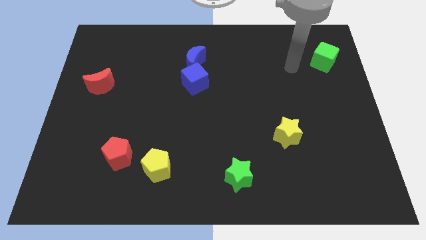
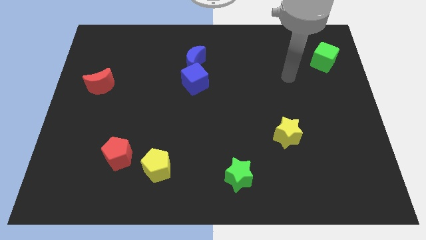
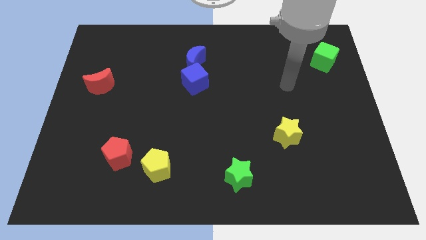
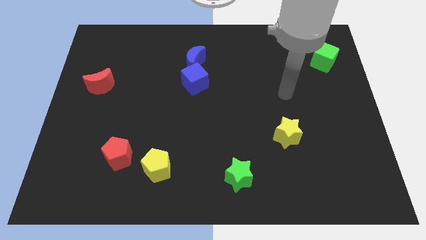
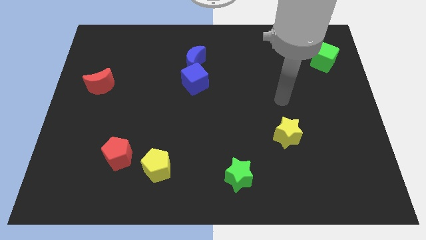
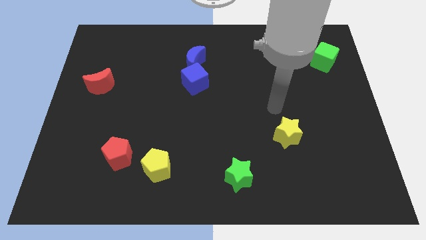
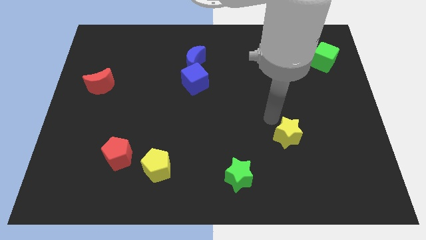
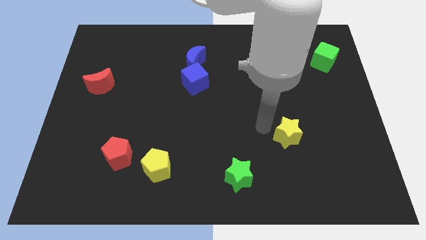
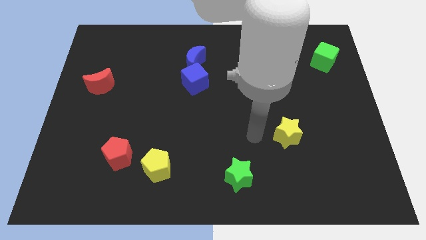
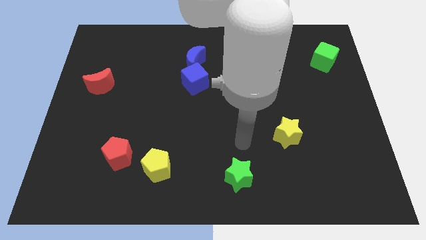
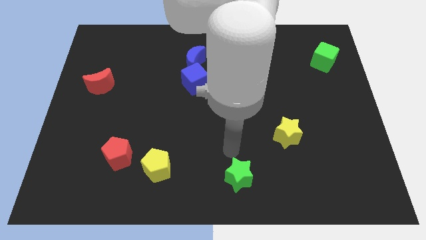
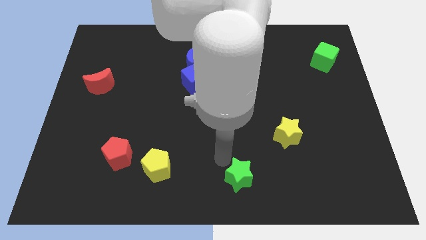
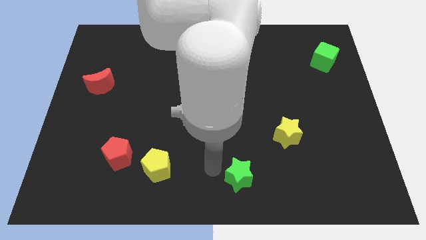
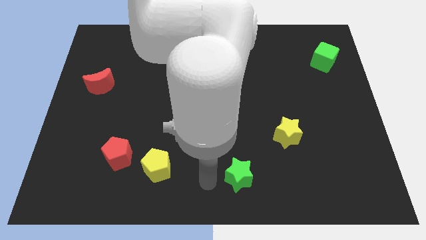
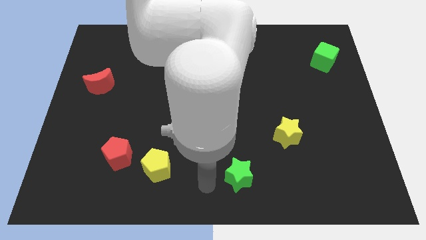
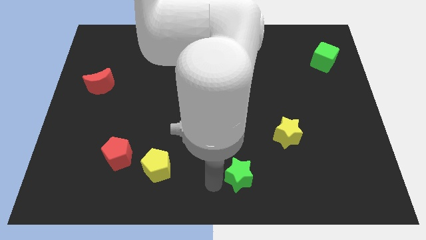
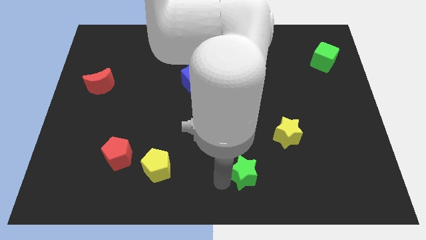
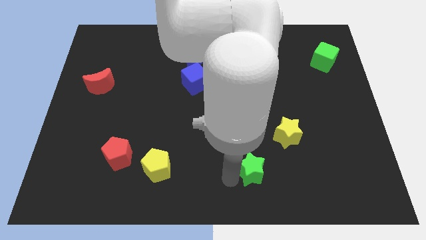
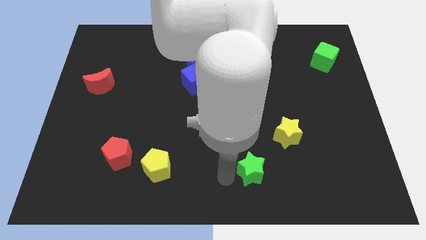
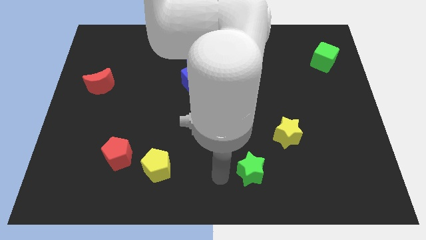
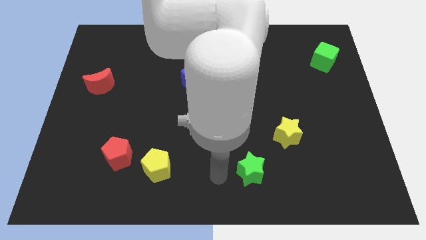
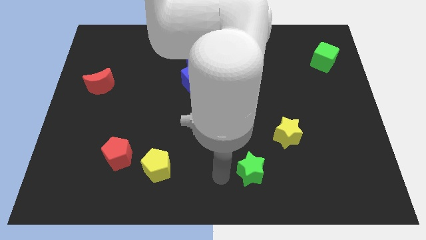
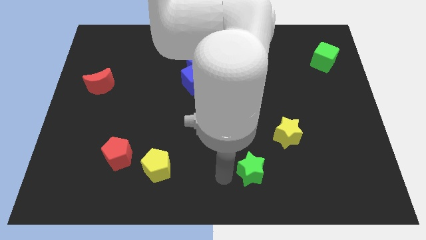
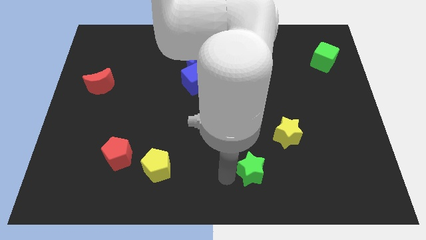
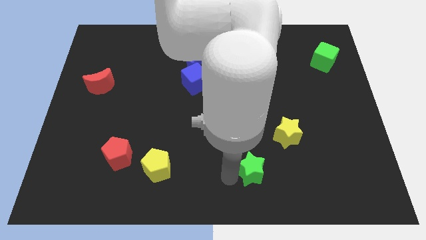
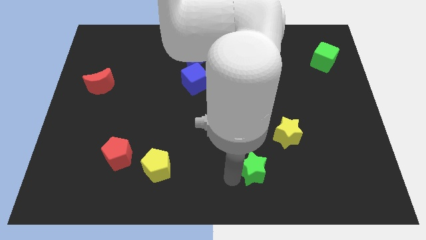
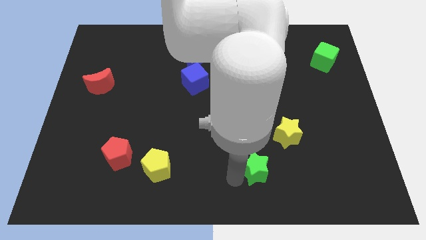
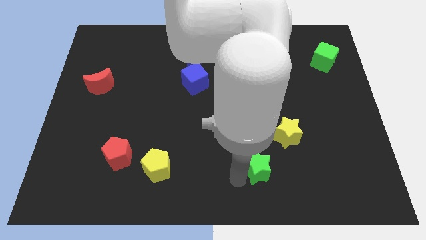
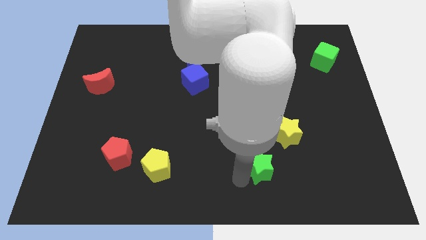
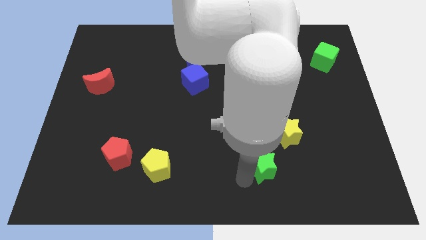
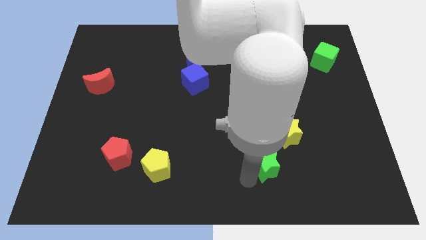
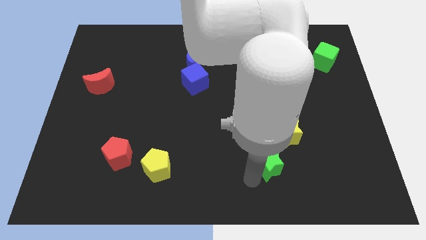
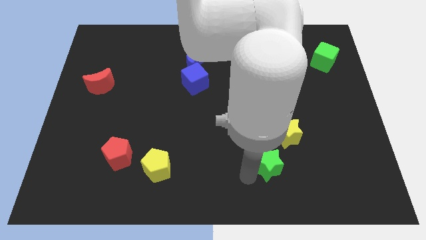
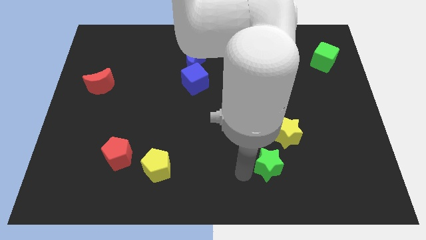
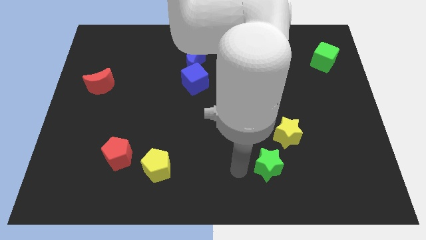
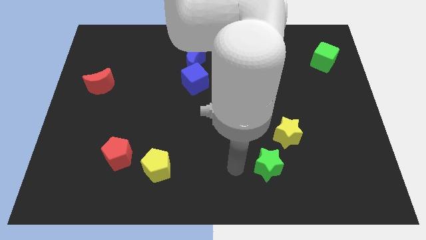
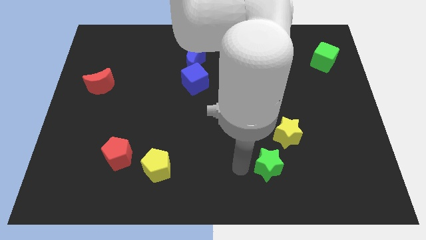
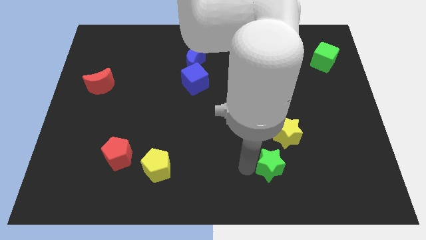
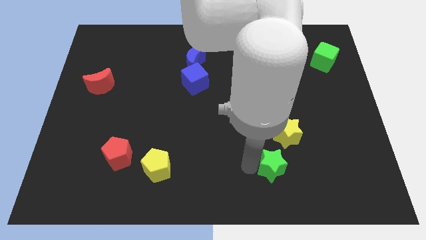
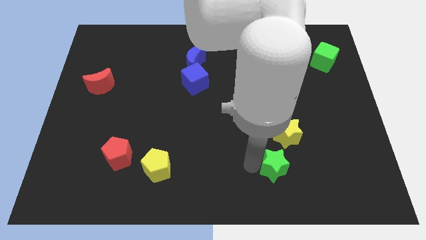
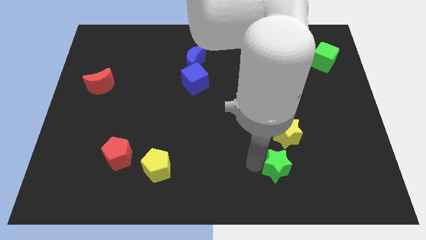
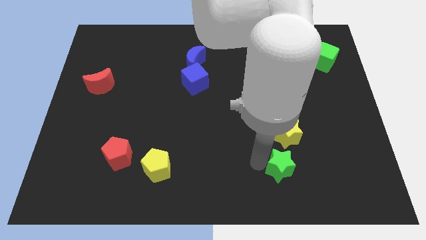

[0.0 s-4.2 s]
move the green star slightly upwards and then right

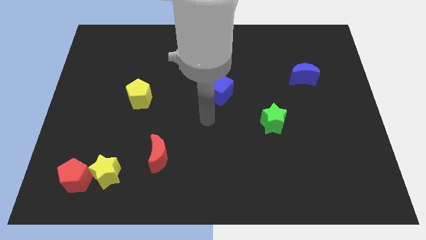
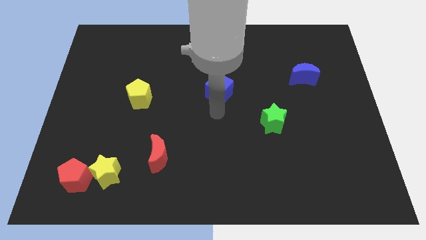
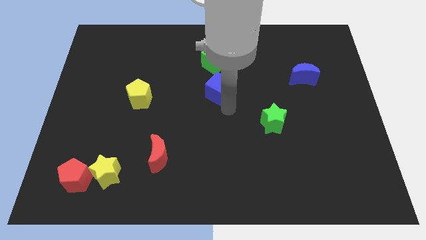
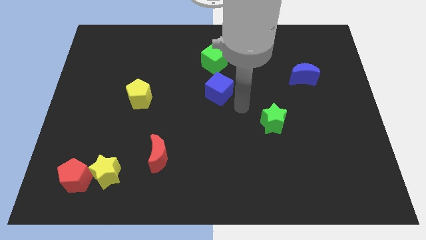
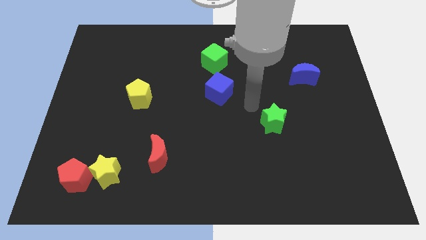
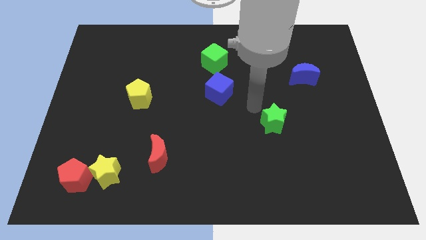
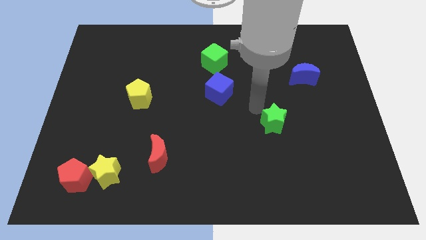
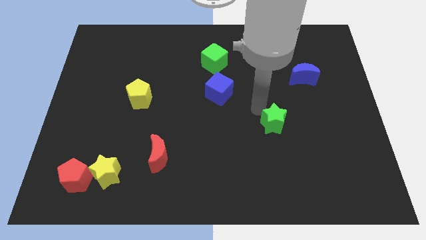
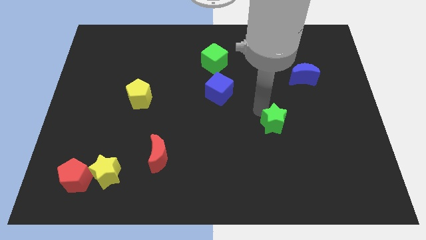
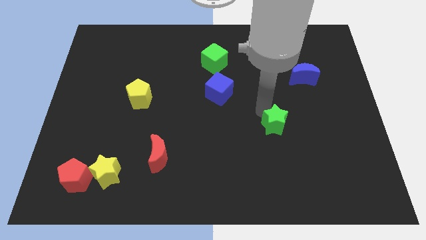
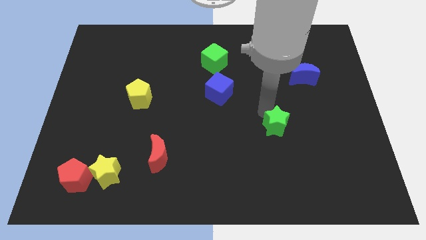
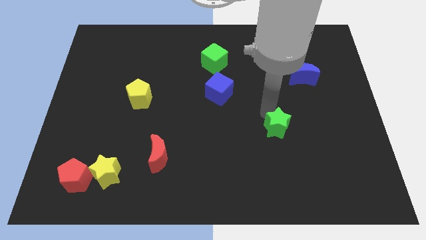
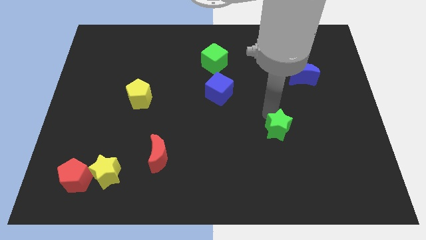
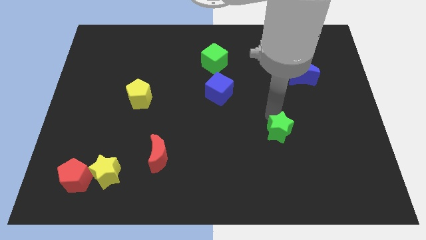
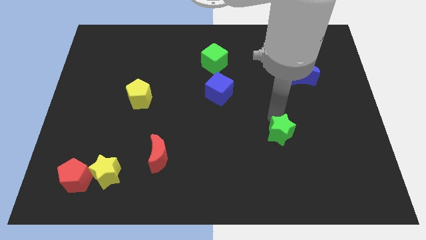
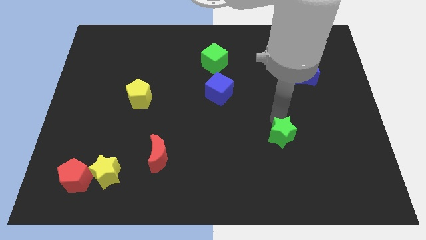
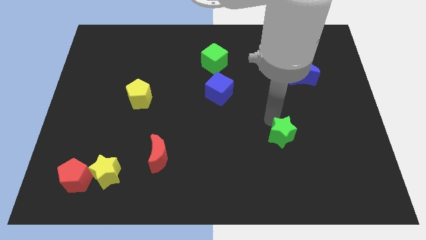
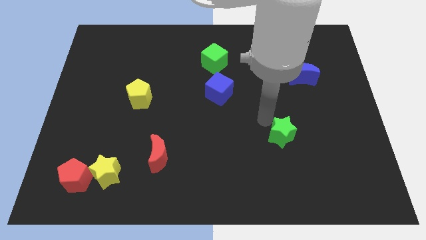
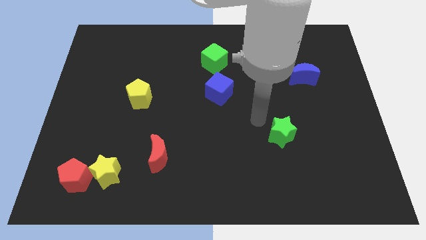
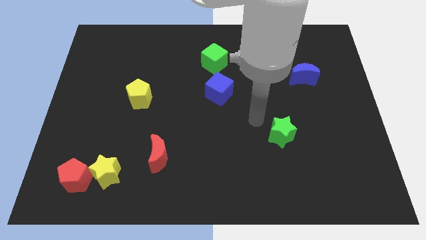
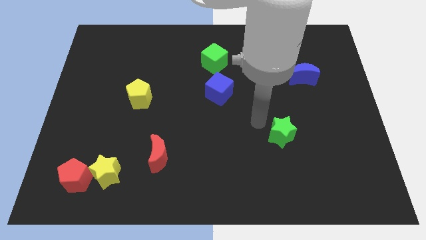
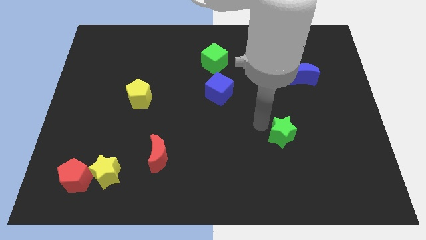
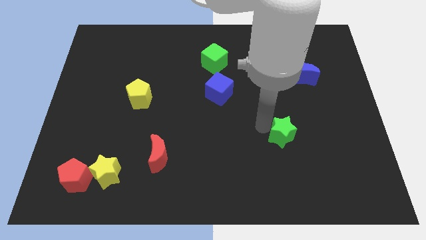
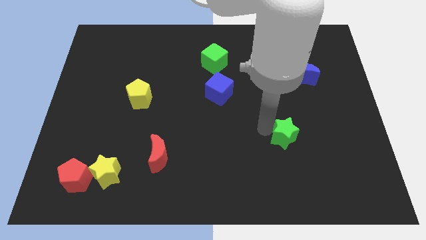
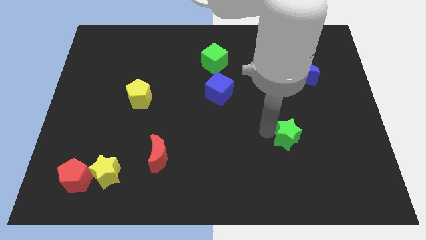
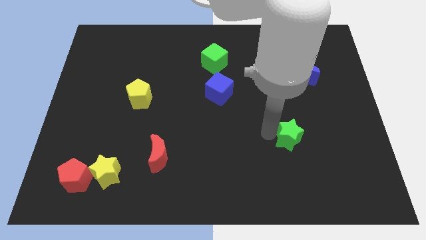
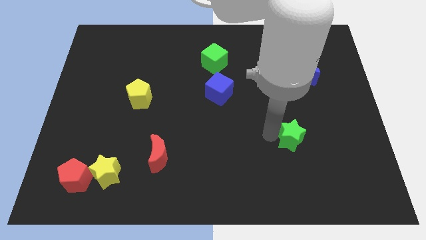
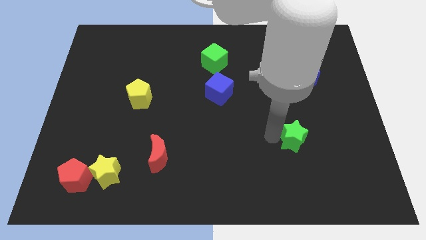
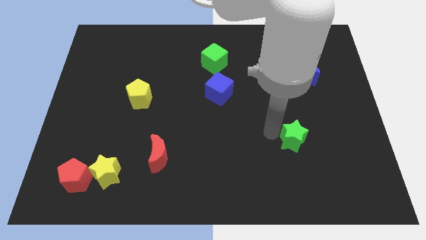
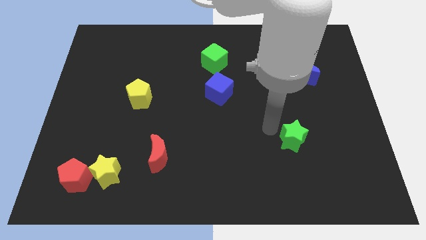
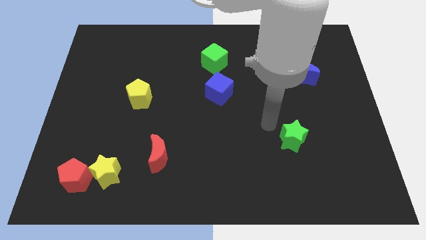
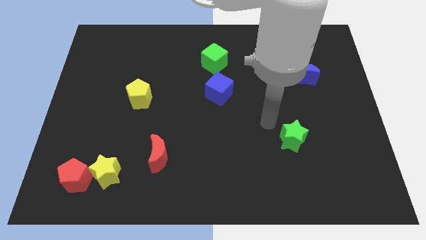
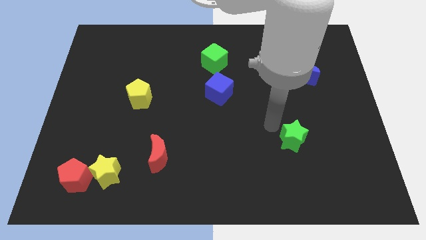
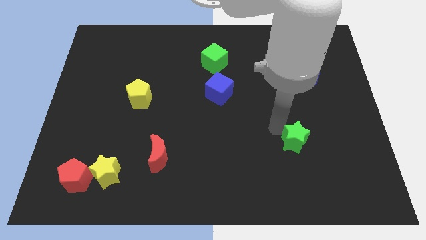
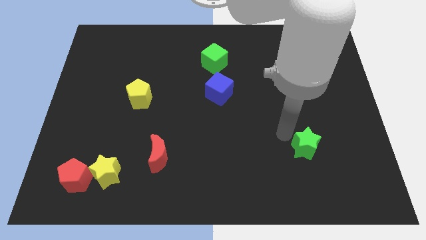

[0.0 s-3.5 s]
move the green star slightly down and to the right

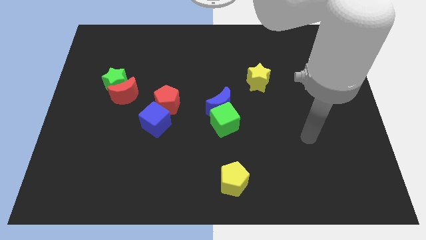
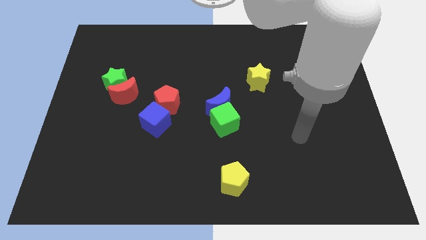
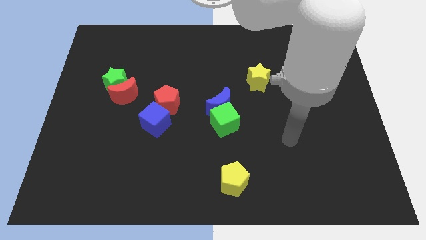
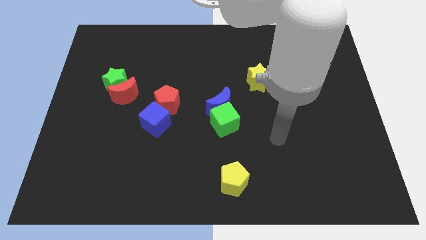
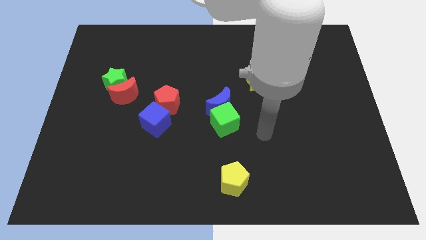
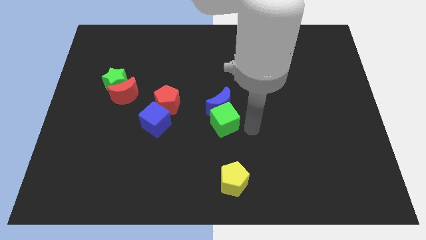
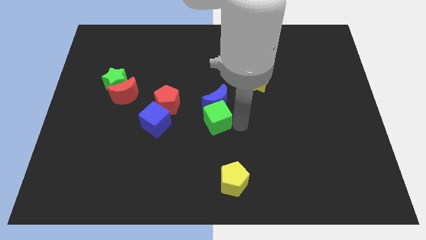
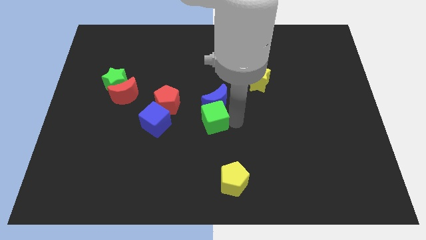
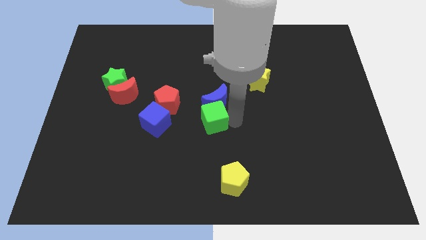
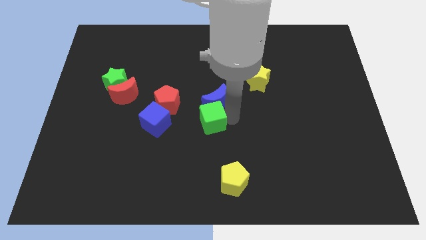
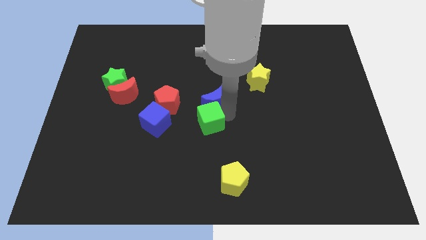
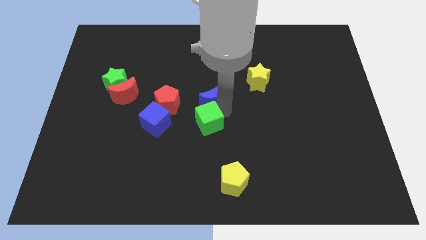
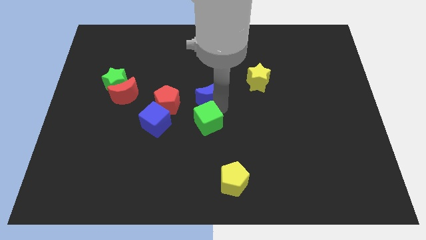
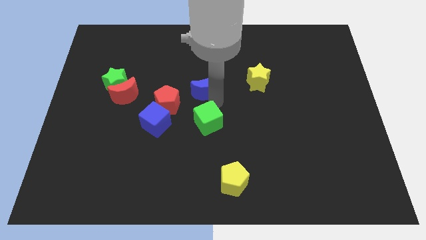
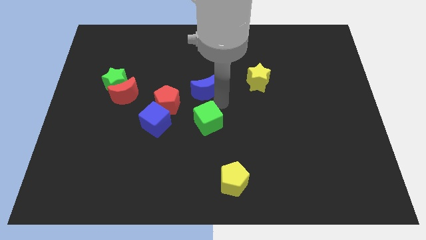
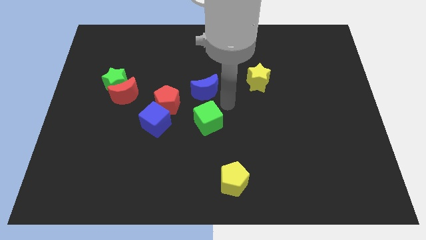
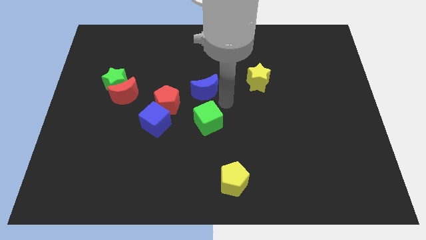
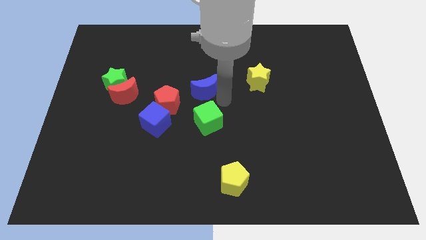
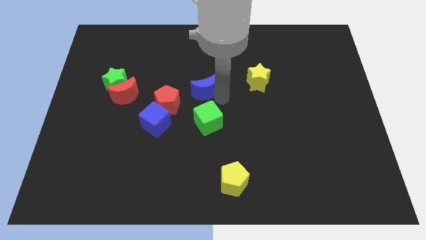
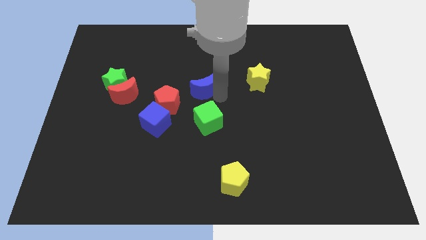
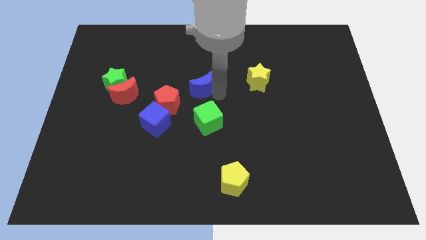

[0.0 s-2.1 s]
move the blue moon somewhat upwards and then left
